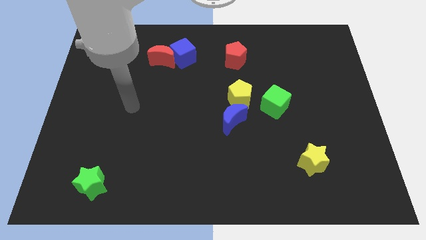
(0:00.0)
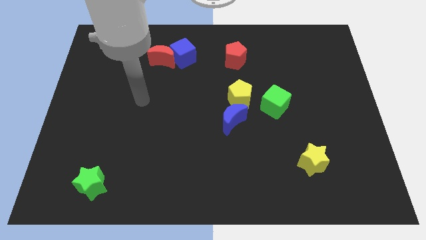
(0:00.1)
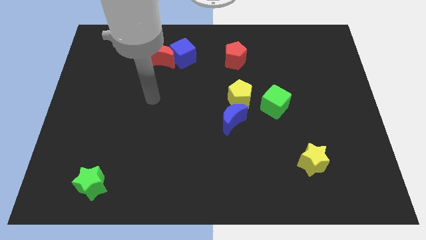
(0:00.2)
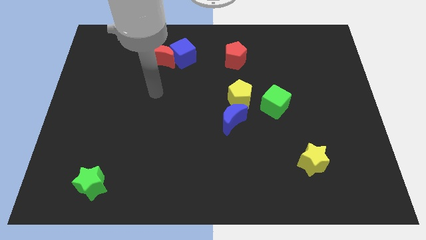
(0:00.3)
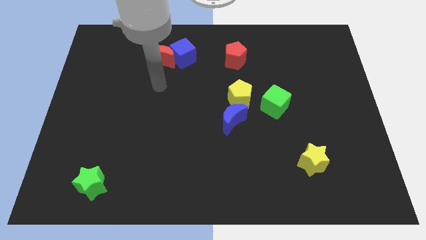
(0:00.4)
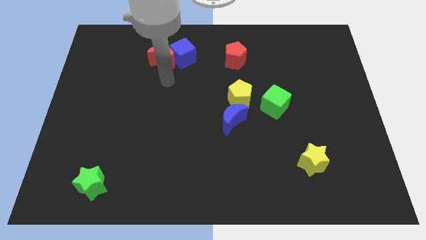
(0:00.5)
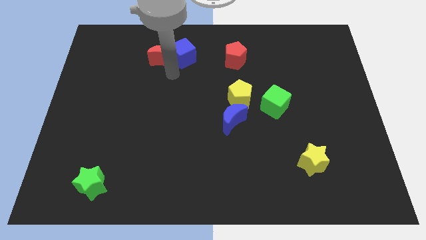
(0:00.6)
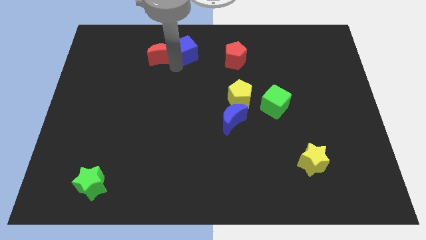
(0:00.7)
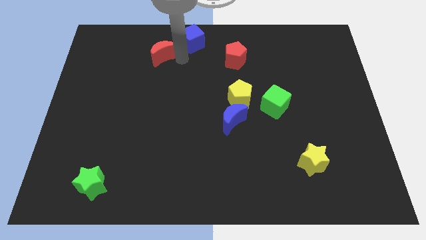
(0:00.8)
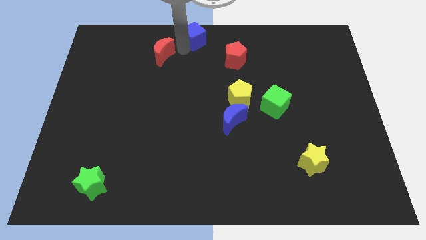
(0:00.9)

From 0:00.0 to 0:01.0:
move the red moon away from the blue cube

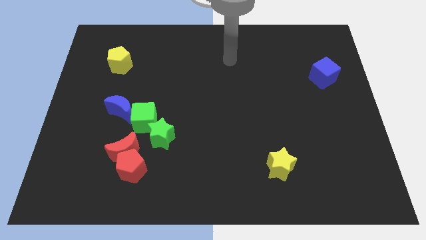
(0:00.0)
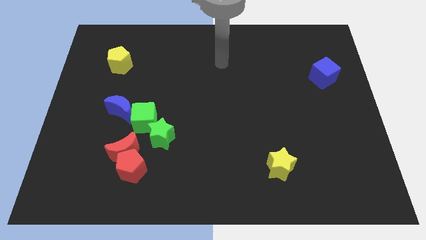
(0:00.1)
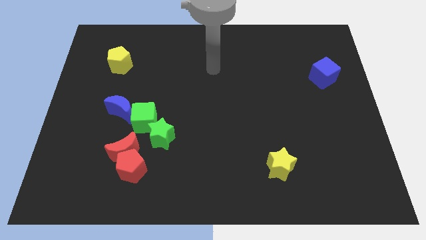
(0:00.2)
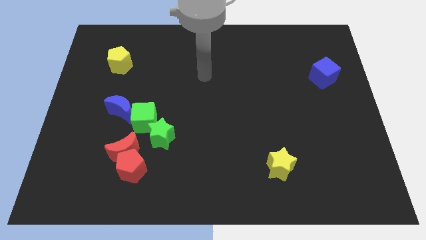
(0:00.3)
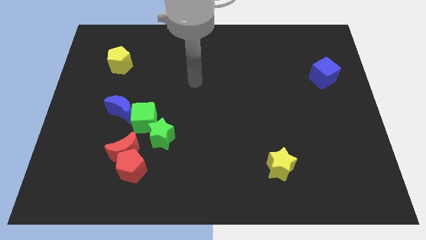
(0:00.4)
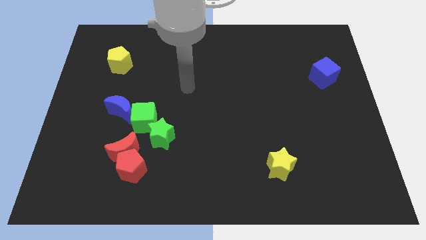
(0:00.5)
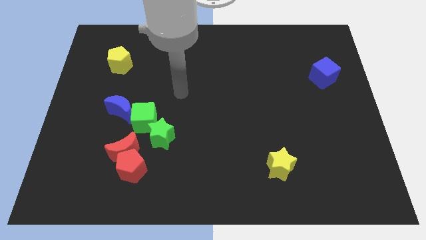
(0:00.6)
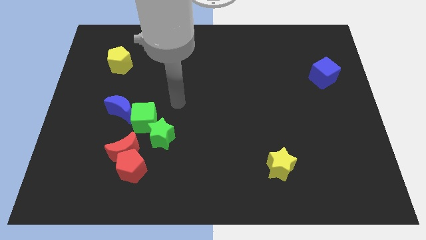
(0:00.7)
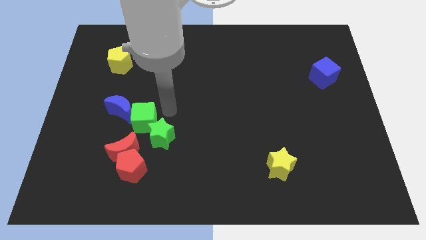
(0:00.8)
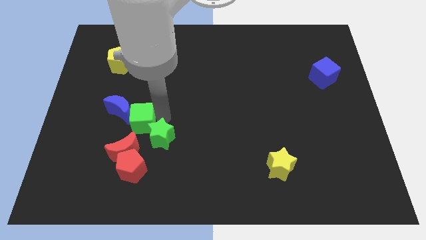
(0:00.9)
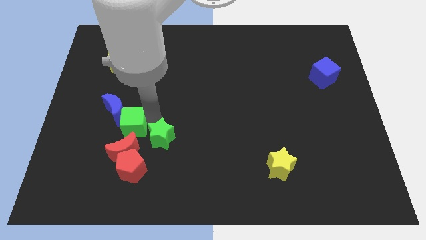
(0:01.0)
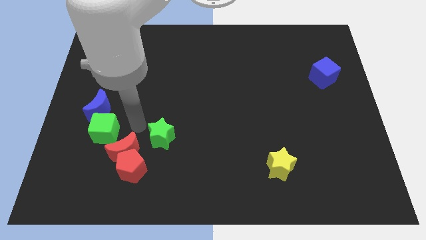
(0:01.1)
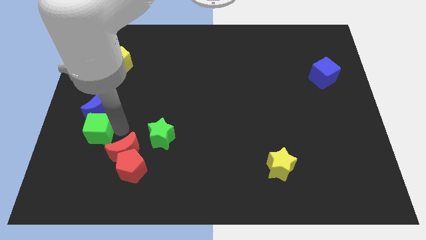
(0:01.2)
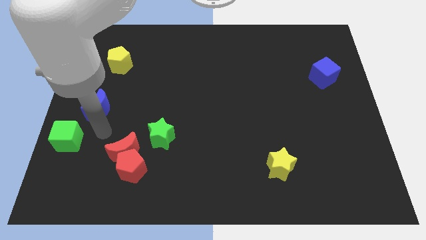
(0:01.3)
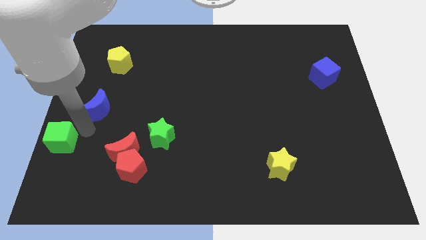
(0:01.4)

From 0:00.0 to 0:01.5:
move the blue moon away from the green cube

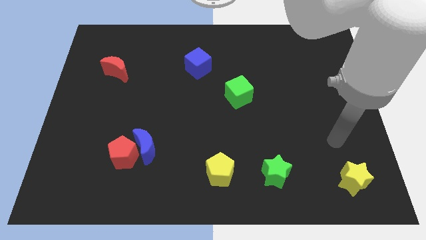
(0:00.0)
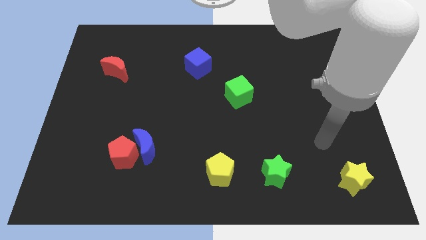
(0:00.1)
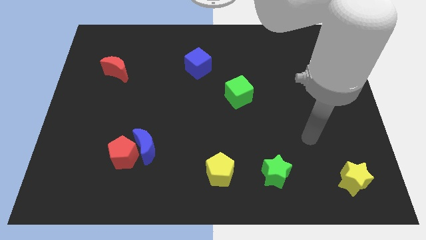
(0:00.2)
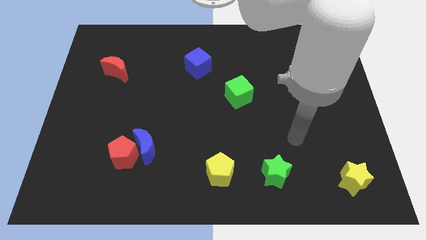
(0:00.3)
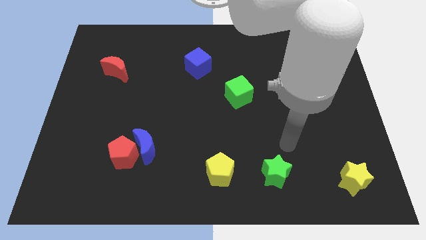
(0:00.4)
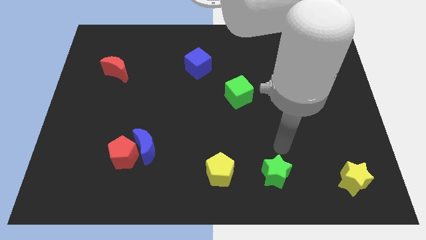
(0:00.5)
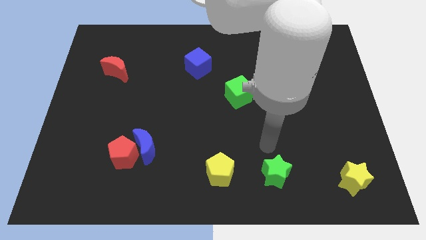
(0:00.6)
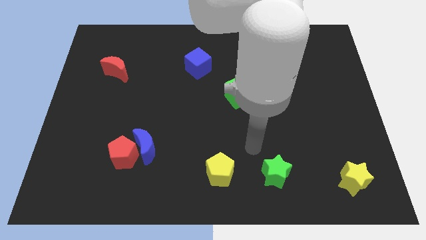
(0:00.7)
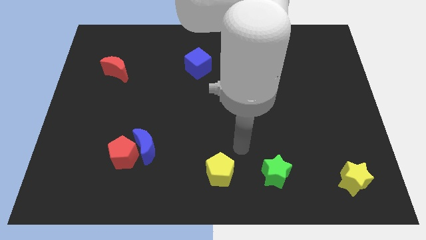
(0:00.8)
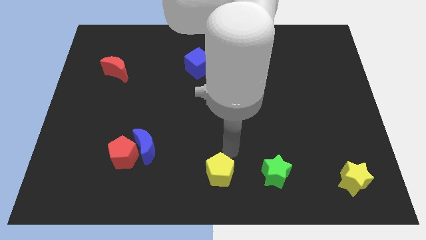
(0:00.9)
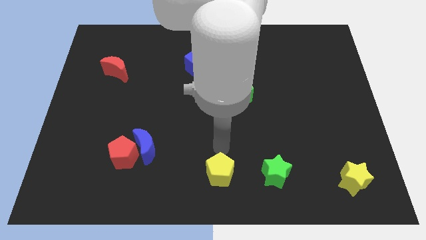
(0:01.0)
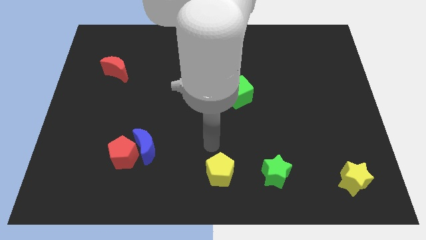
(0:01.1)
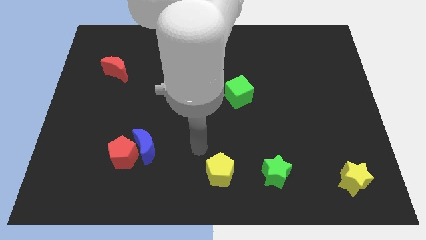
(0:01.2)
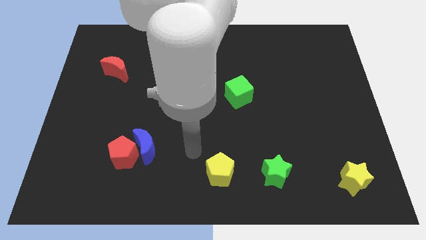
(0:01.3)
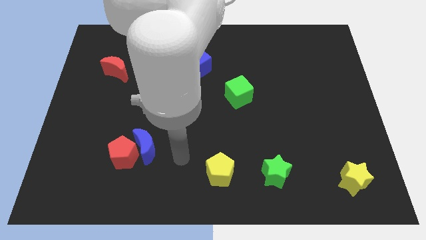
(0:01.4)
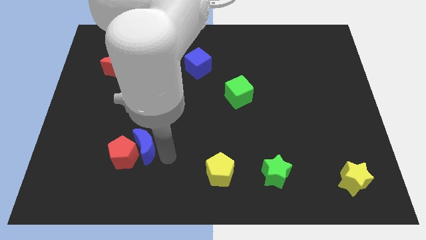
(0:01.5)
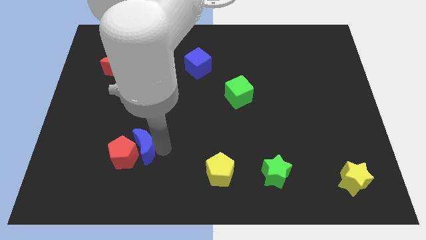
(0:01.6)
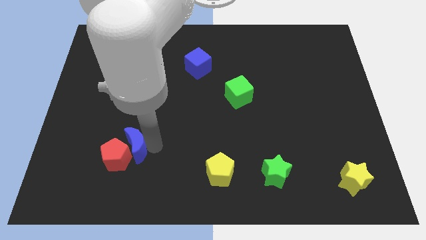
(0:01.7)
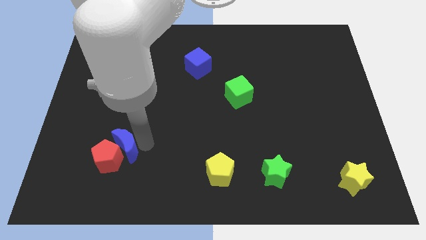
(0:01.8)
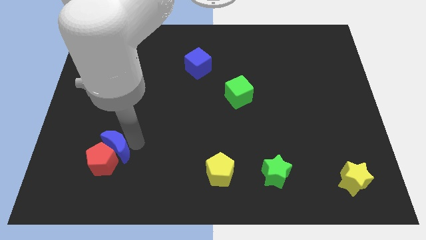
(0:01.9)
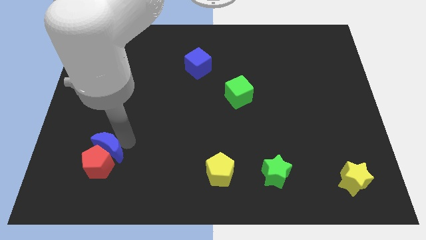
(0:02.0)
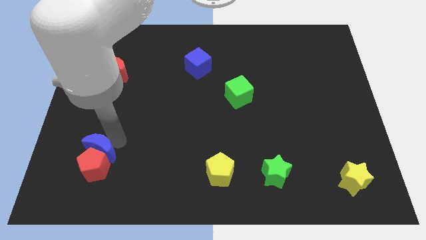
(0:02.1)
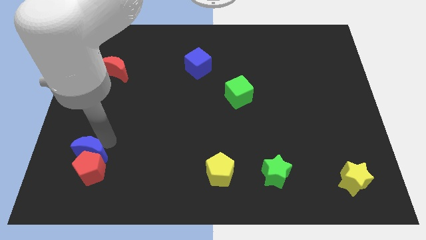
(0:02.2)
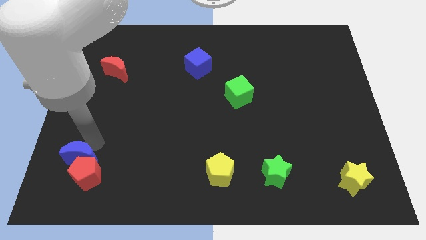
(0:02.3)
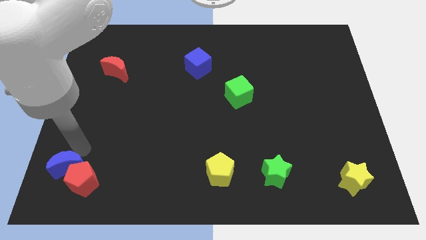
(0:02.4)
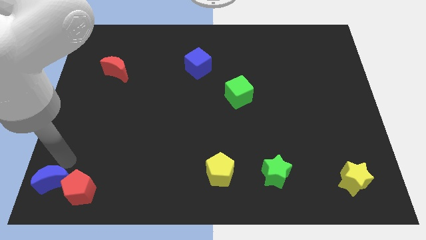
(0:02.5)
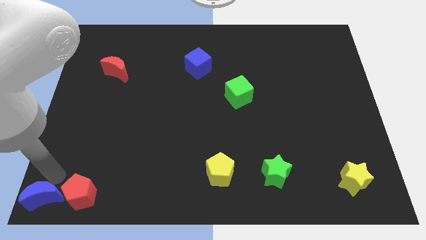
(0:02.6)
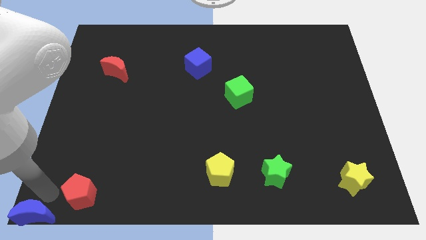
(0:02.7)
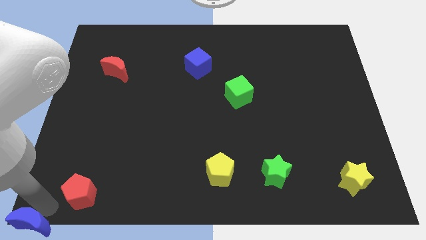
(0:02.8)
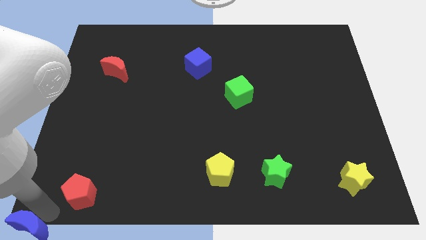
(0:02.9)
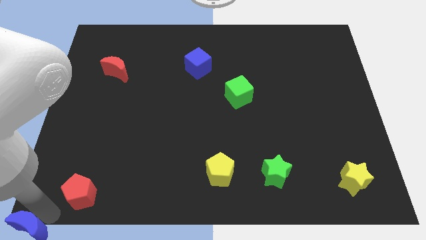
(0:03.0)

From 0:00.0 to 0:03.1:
pull the red pentagon apart from the blue moon

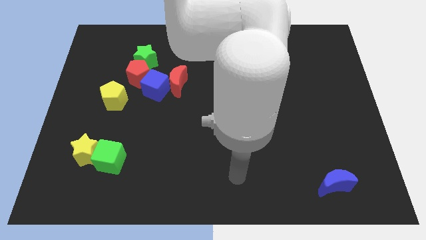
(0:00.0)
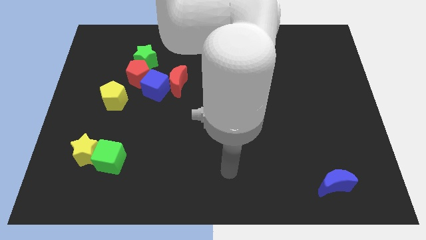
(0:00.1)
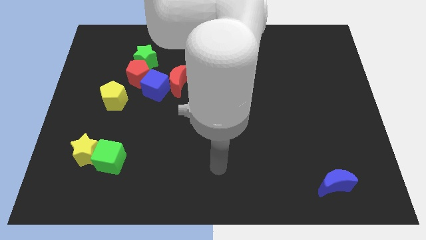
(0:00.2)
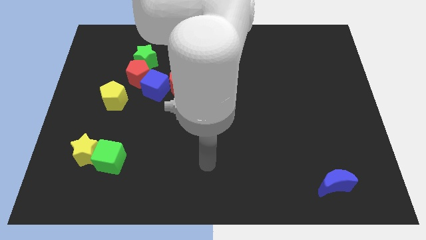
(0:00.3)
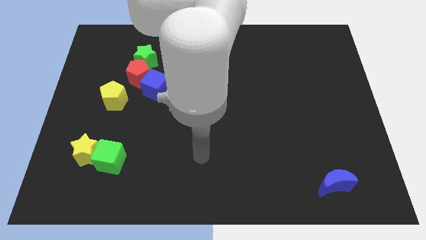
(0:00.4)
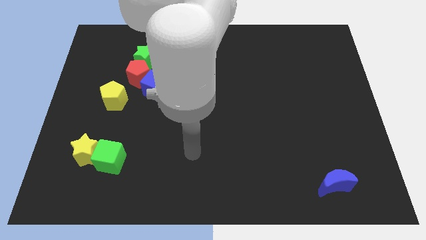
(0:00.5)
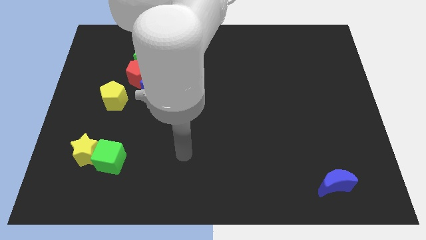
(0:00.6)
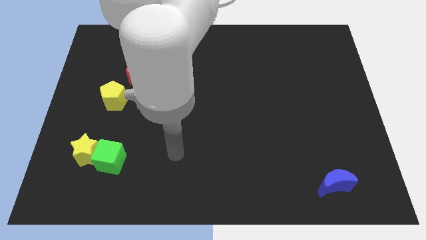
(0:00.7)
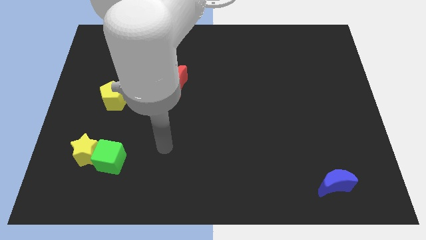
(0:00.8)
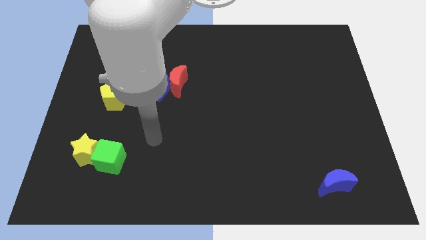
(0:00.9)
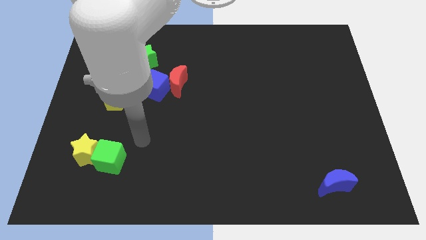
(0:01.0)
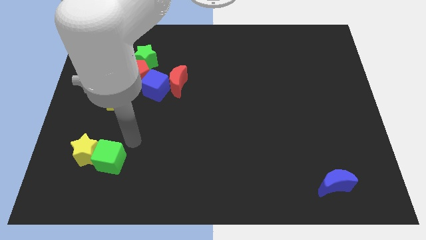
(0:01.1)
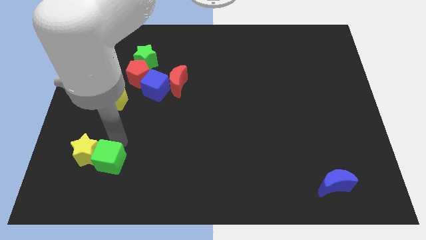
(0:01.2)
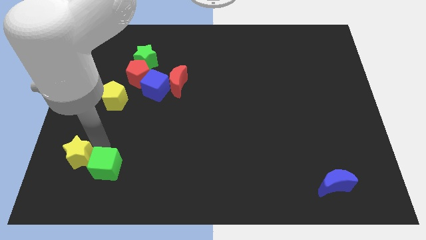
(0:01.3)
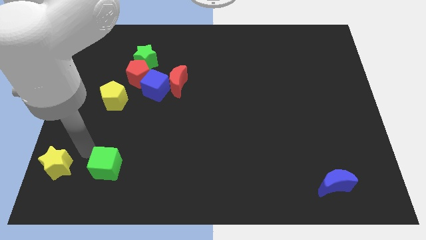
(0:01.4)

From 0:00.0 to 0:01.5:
pull the green cube apart from the yellow star

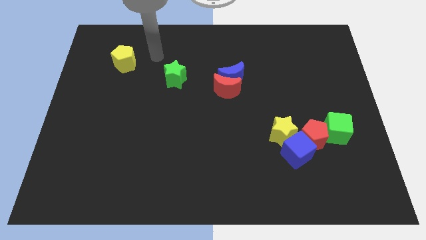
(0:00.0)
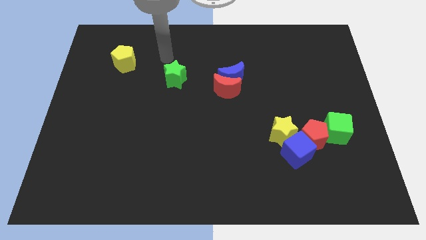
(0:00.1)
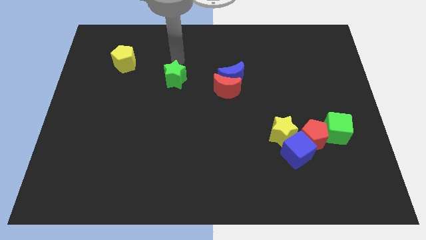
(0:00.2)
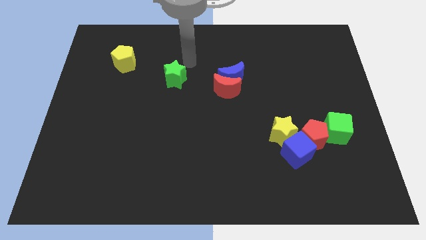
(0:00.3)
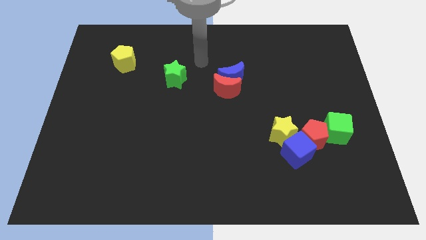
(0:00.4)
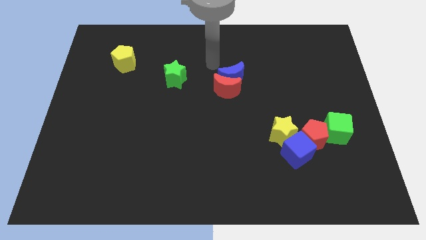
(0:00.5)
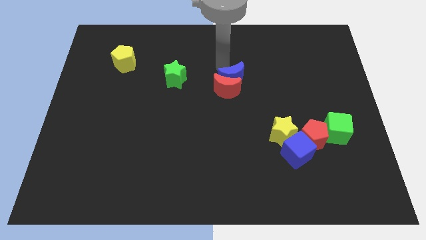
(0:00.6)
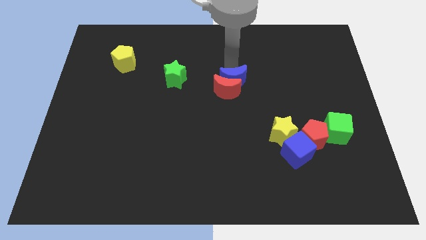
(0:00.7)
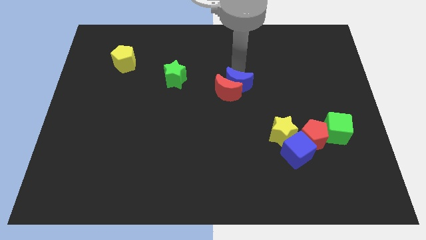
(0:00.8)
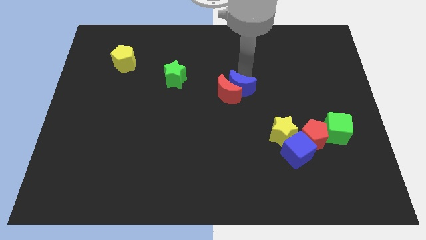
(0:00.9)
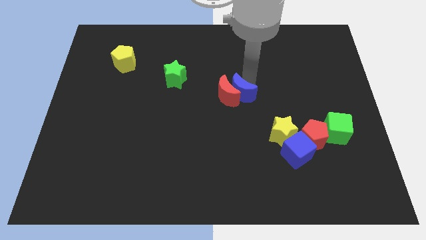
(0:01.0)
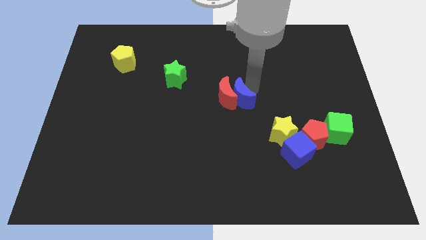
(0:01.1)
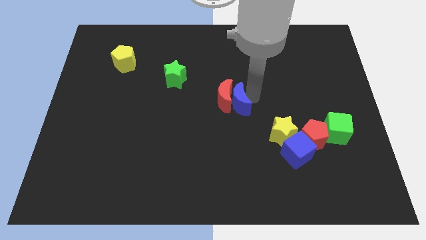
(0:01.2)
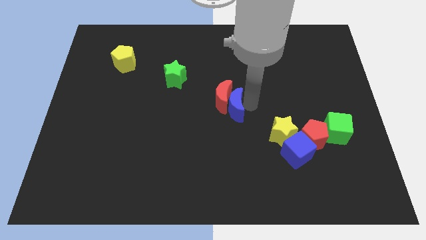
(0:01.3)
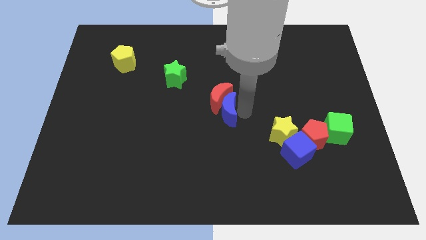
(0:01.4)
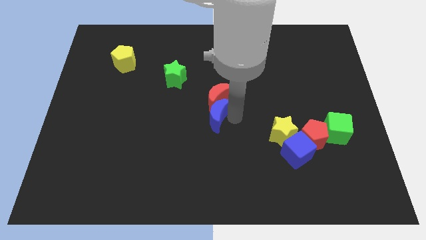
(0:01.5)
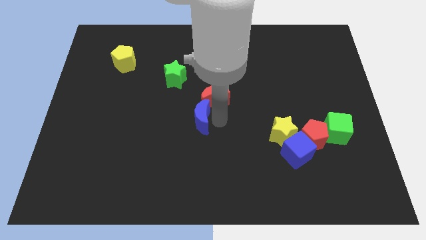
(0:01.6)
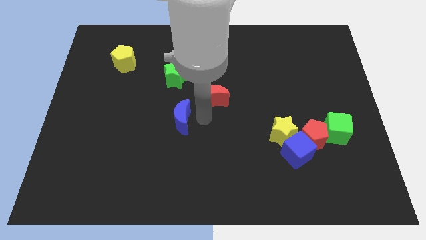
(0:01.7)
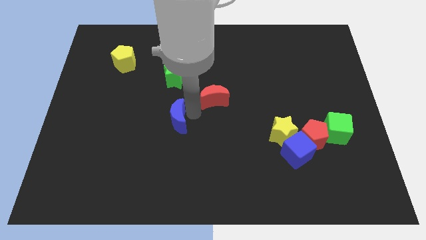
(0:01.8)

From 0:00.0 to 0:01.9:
separate the red moon from the blue moon

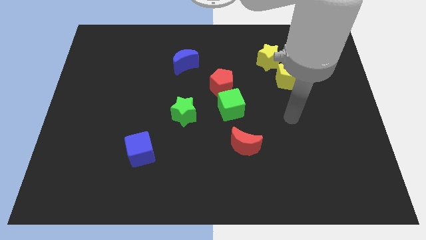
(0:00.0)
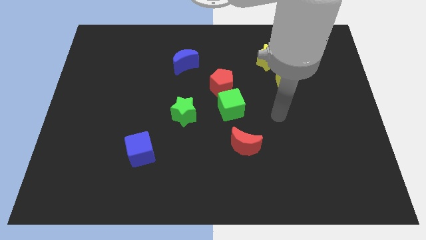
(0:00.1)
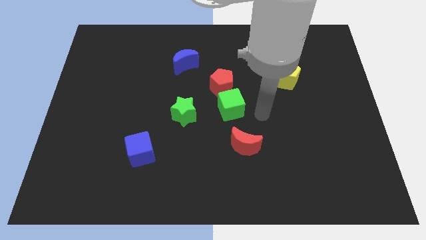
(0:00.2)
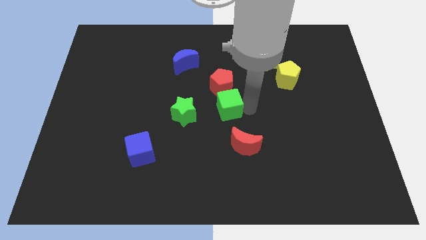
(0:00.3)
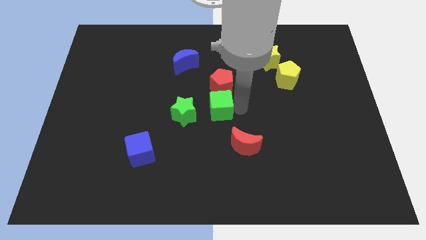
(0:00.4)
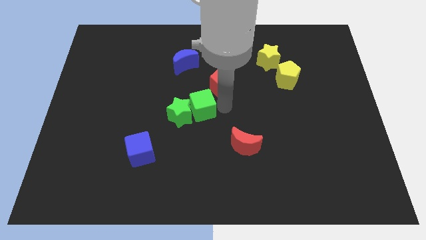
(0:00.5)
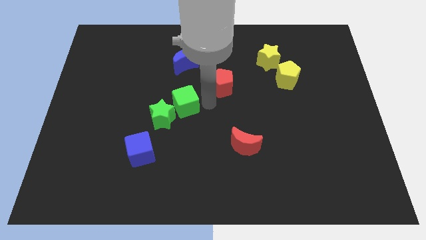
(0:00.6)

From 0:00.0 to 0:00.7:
move the red pentagon away from the green cube
